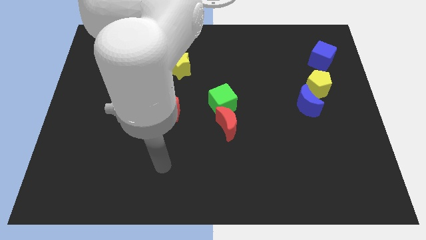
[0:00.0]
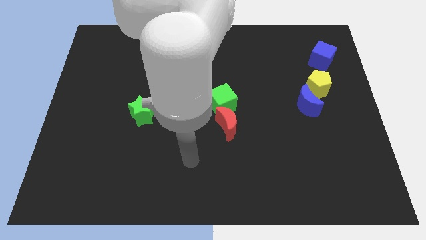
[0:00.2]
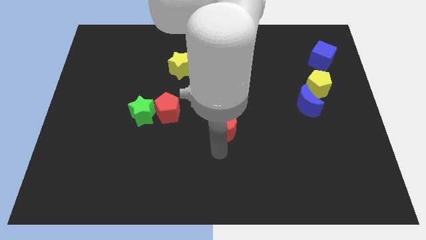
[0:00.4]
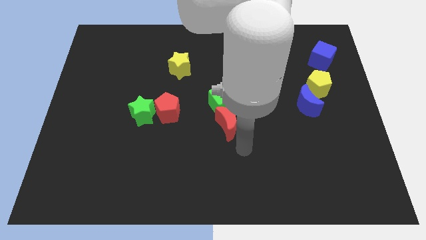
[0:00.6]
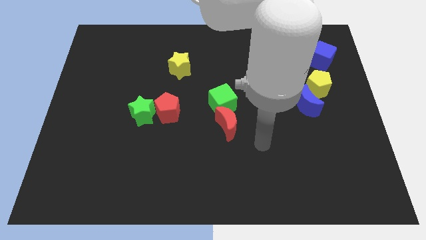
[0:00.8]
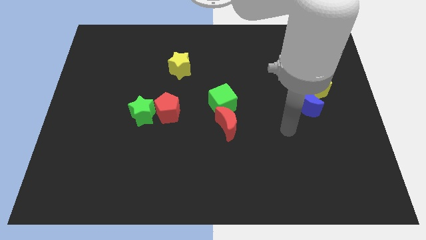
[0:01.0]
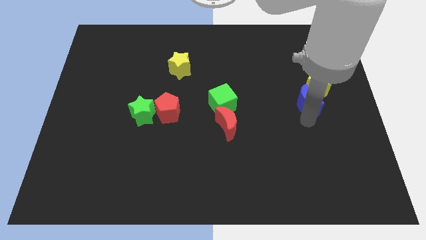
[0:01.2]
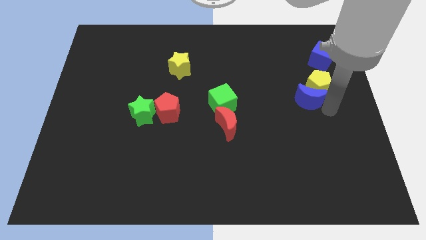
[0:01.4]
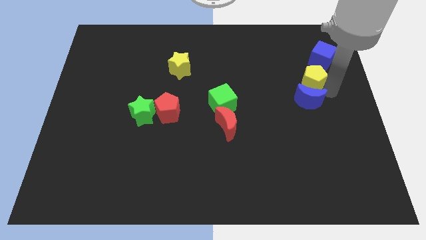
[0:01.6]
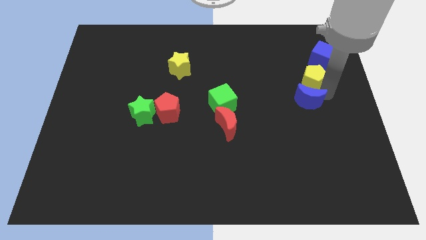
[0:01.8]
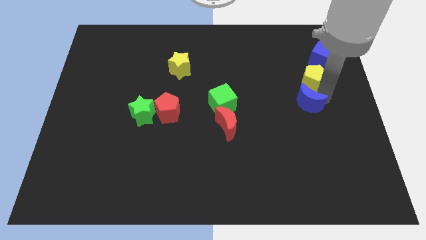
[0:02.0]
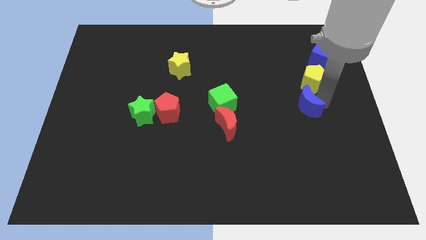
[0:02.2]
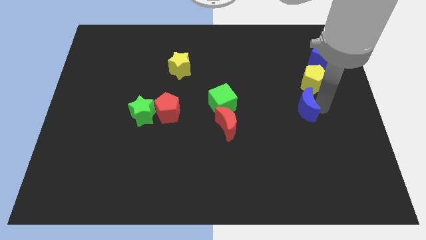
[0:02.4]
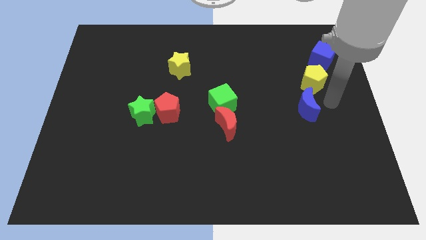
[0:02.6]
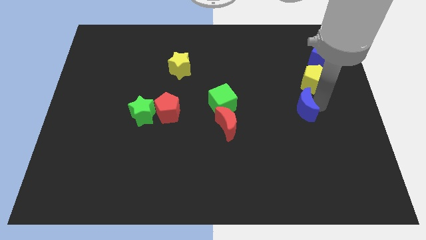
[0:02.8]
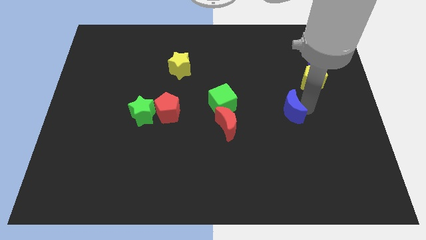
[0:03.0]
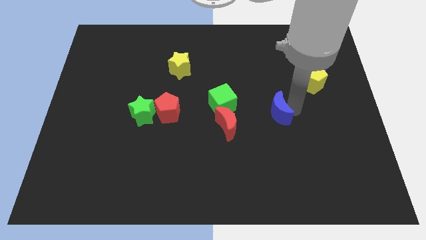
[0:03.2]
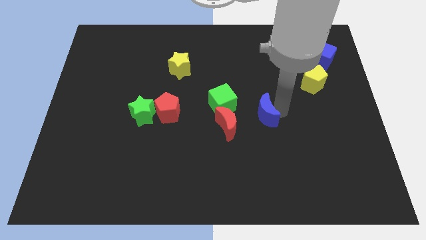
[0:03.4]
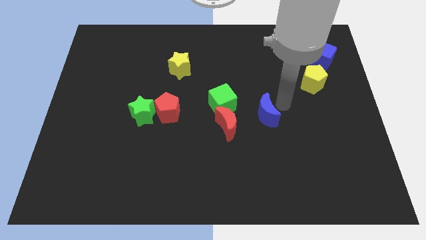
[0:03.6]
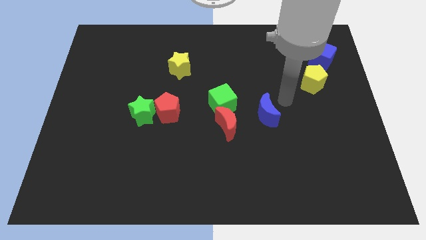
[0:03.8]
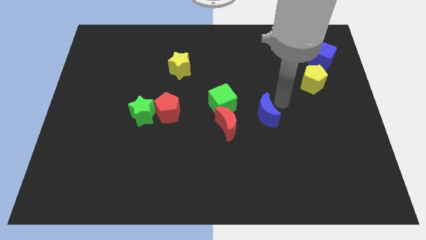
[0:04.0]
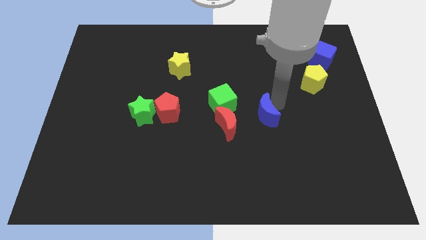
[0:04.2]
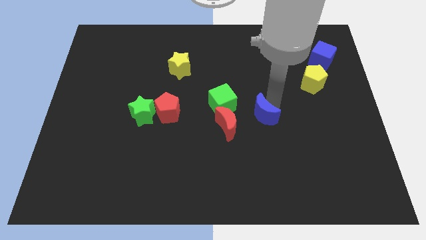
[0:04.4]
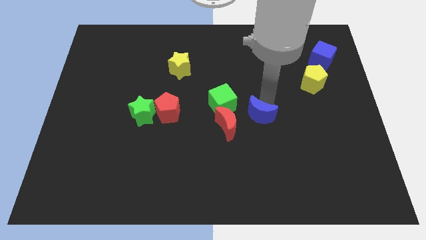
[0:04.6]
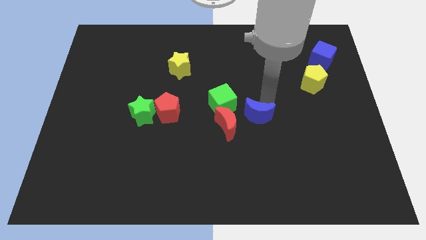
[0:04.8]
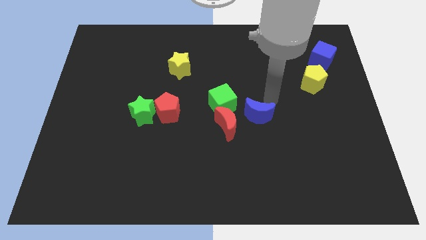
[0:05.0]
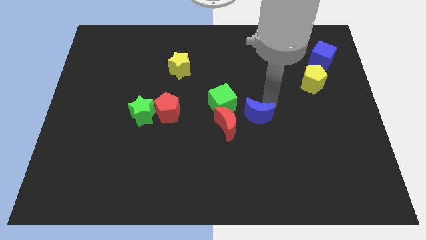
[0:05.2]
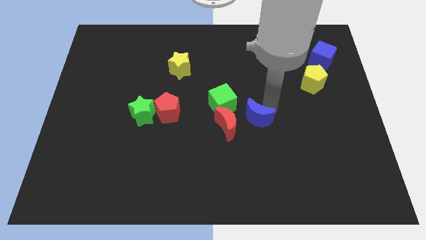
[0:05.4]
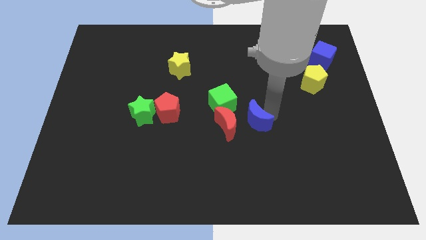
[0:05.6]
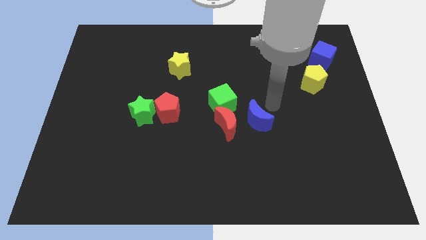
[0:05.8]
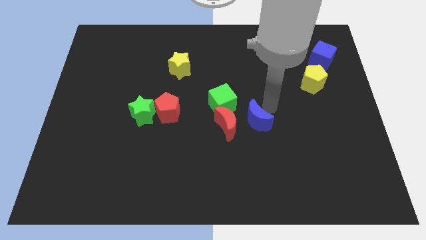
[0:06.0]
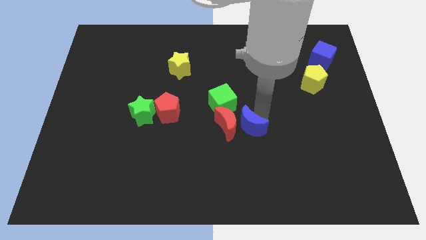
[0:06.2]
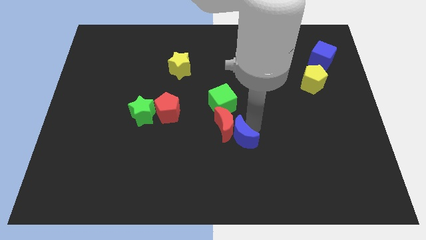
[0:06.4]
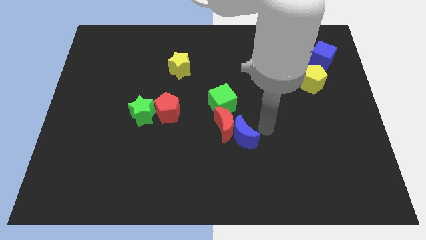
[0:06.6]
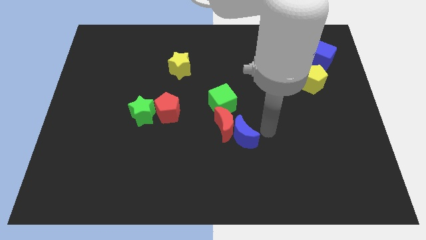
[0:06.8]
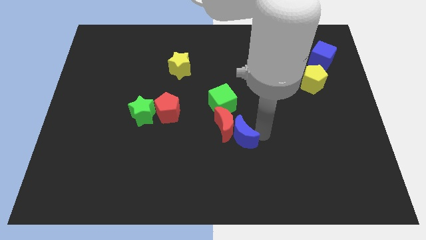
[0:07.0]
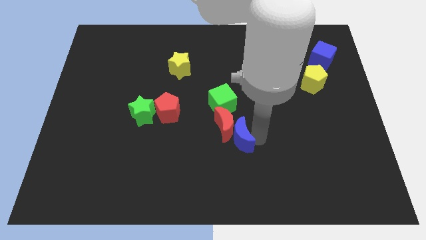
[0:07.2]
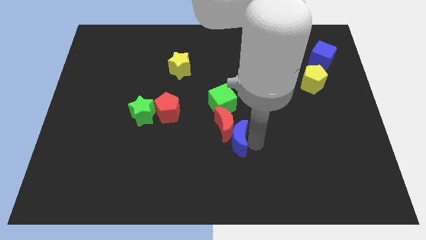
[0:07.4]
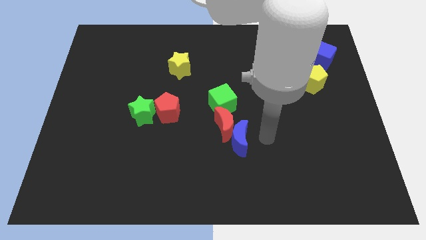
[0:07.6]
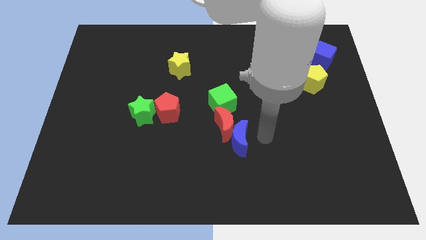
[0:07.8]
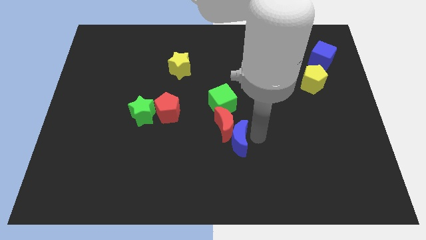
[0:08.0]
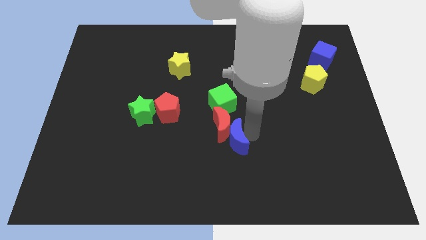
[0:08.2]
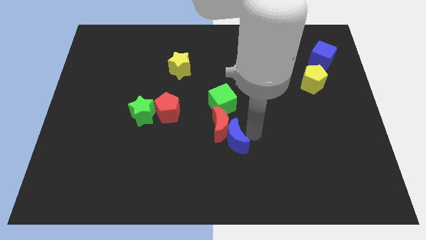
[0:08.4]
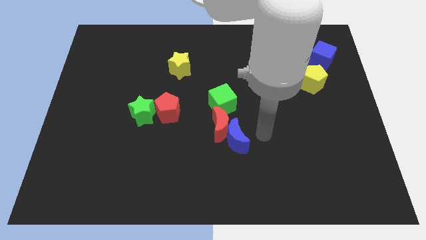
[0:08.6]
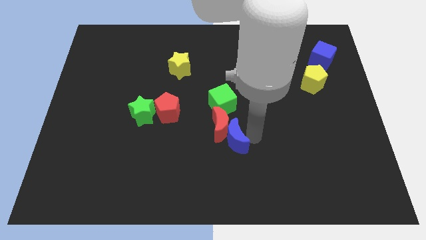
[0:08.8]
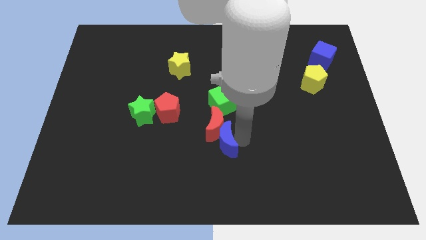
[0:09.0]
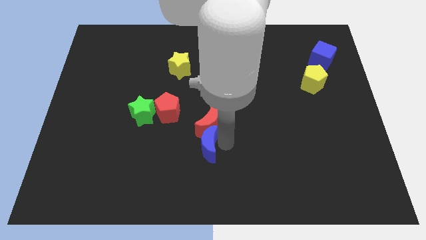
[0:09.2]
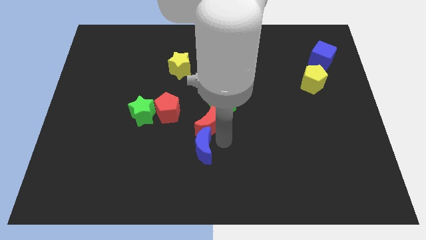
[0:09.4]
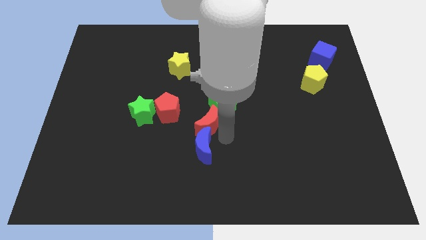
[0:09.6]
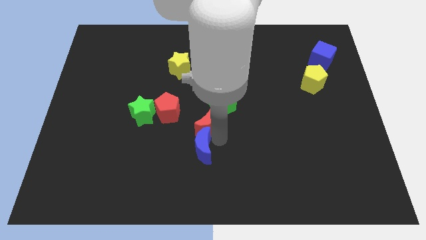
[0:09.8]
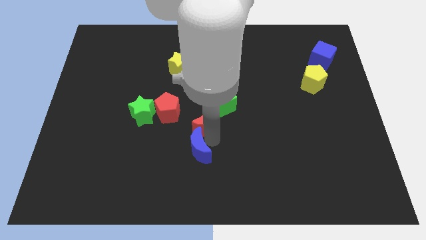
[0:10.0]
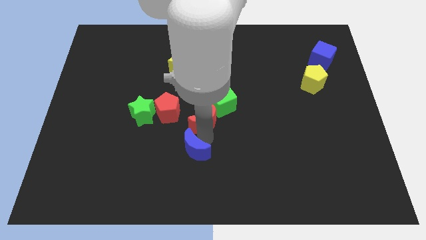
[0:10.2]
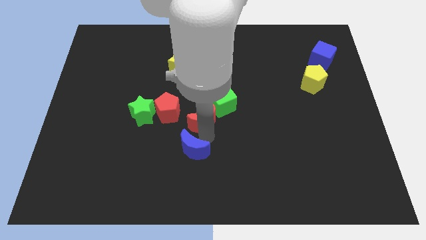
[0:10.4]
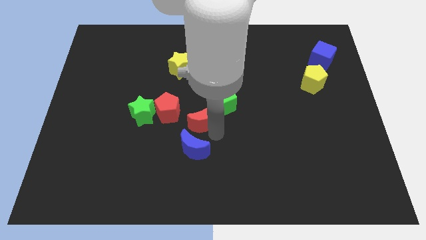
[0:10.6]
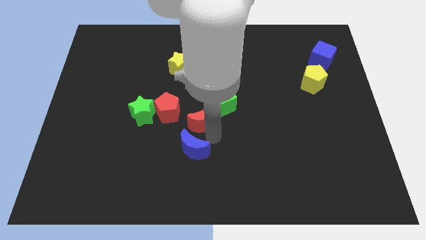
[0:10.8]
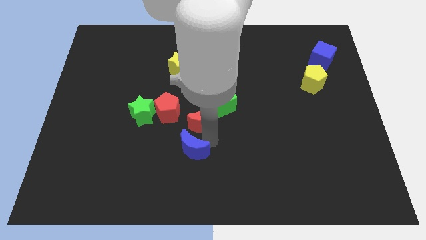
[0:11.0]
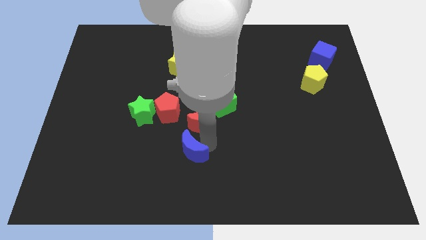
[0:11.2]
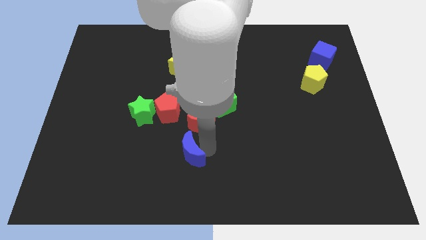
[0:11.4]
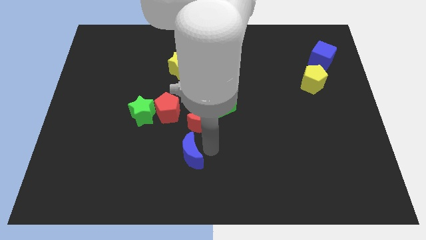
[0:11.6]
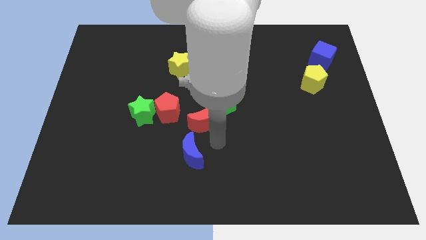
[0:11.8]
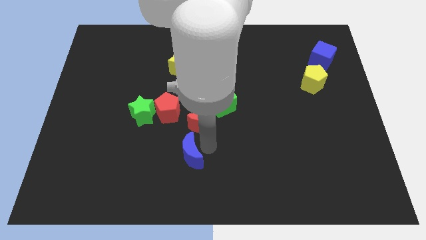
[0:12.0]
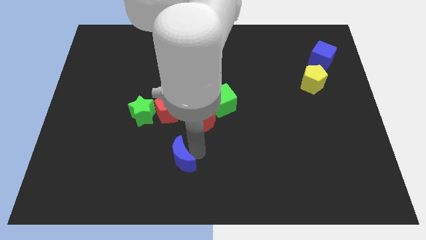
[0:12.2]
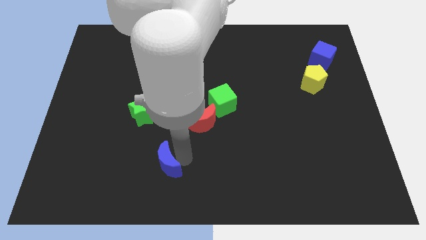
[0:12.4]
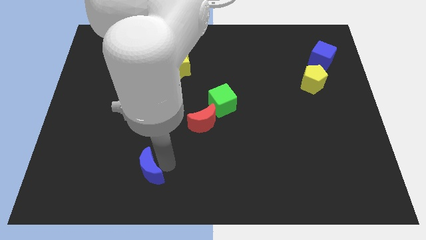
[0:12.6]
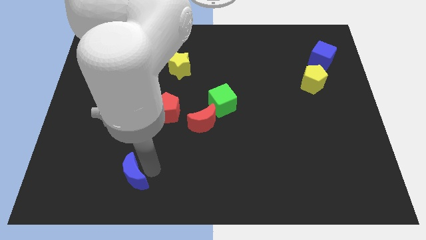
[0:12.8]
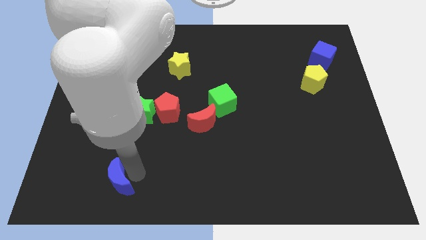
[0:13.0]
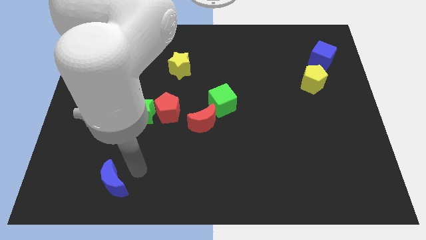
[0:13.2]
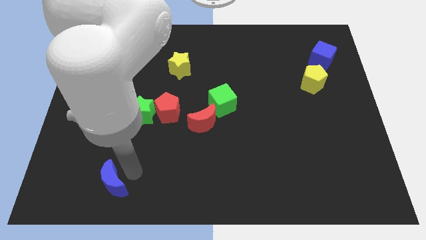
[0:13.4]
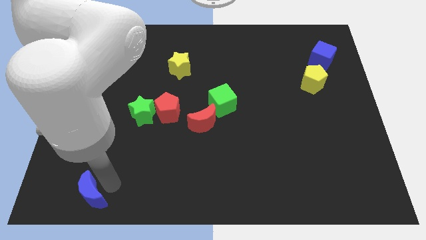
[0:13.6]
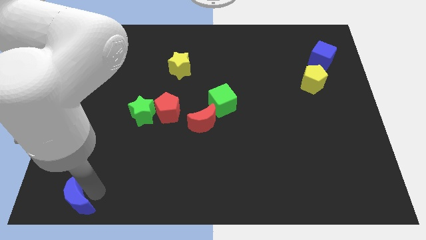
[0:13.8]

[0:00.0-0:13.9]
push the blue moon to the bottom left of the board

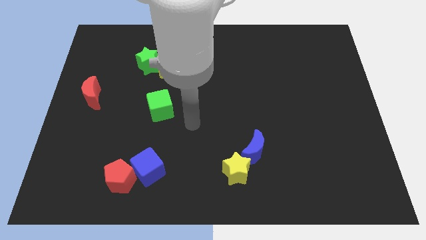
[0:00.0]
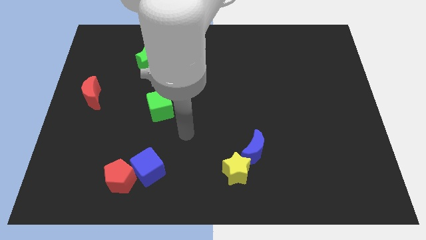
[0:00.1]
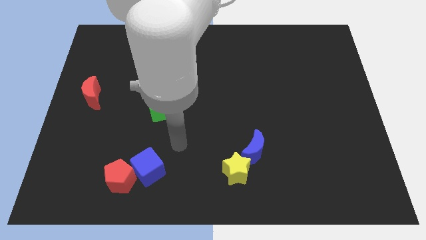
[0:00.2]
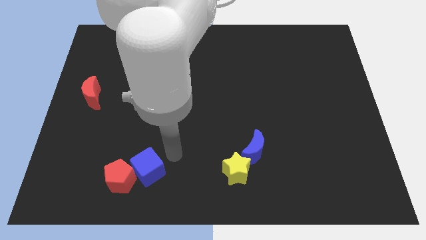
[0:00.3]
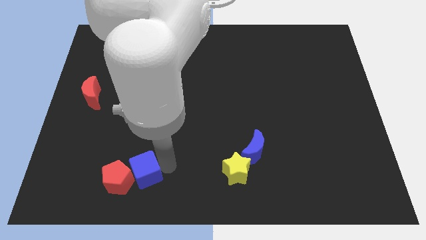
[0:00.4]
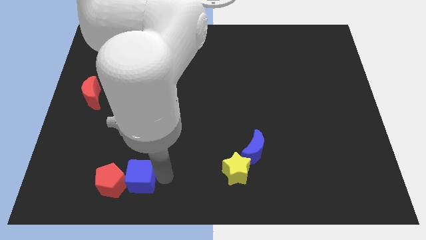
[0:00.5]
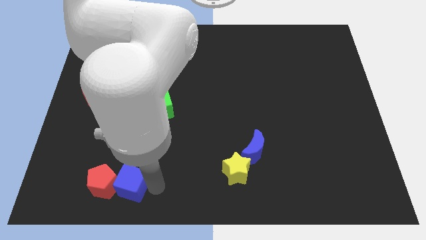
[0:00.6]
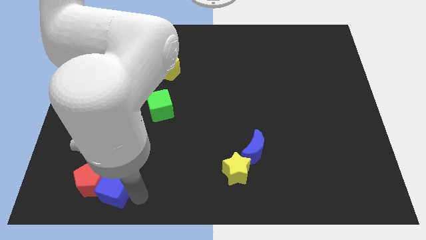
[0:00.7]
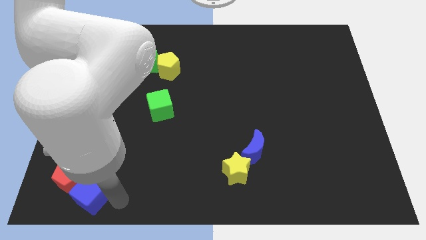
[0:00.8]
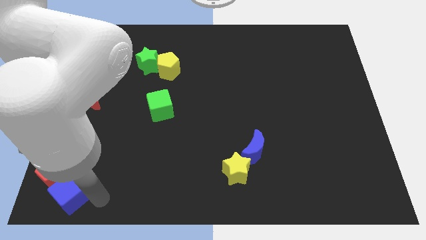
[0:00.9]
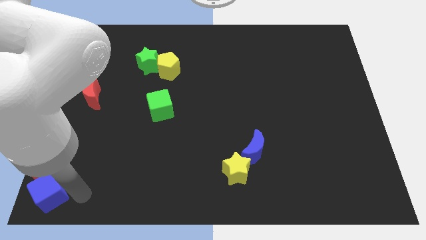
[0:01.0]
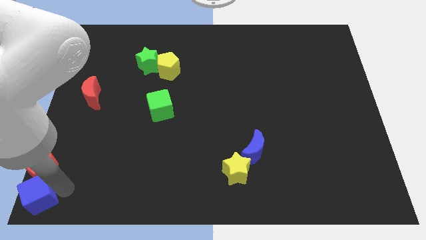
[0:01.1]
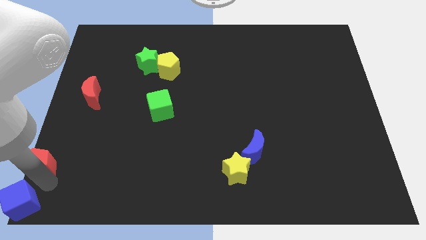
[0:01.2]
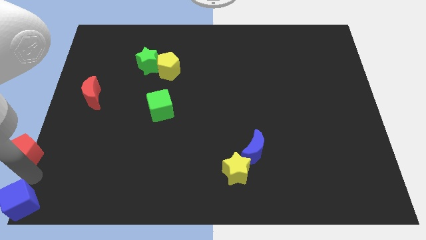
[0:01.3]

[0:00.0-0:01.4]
move the red pentagon to the center left
